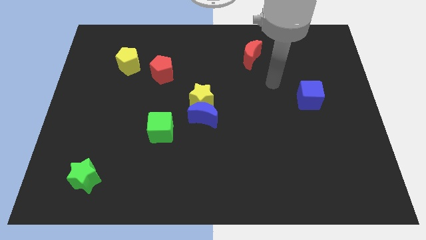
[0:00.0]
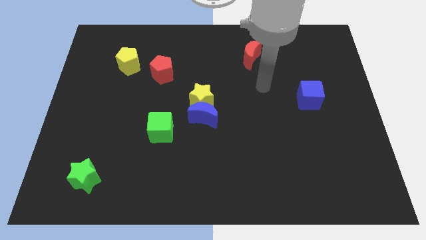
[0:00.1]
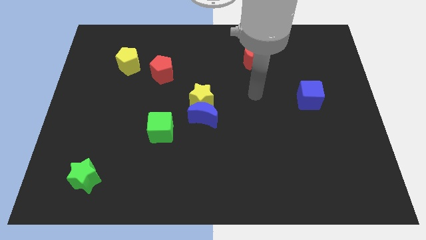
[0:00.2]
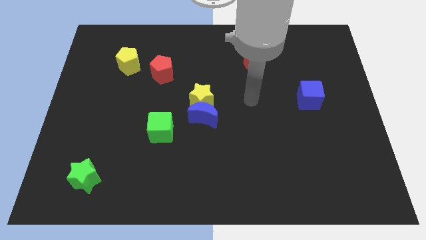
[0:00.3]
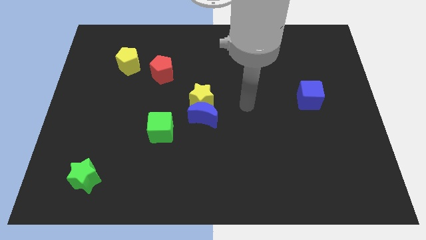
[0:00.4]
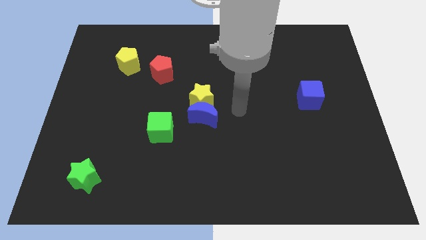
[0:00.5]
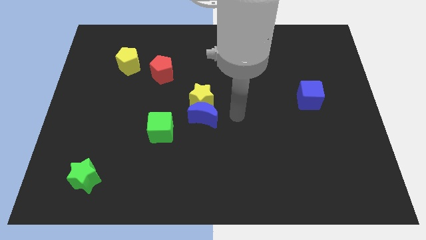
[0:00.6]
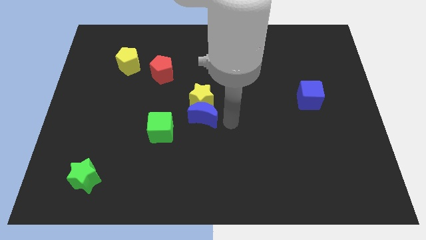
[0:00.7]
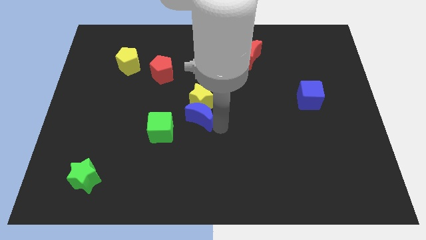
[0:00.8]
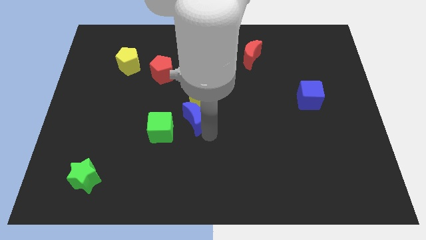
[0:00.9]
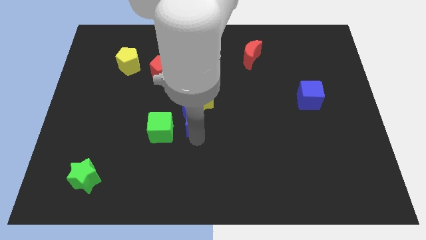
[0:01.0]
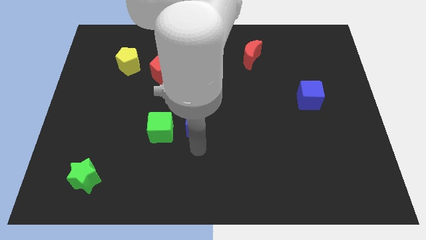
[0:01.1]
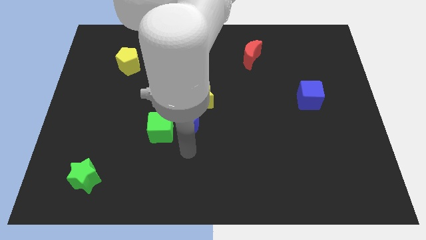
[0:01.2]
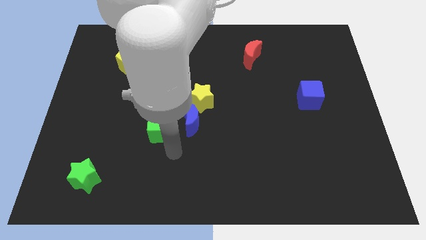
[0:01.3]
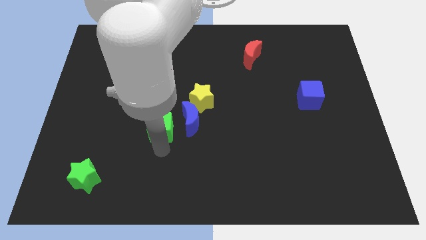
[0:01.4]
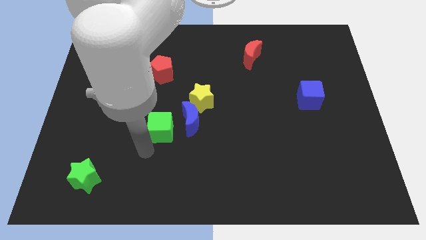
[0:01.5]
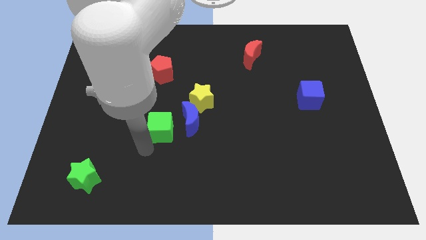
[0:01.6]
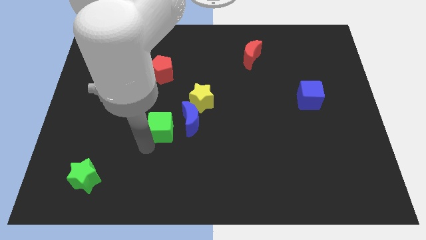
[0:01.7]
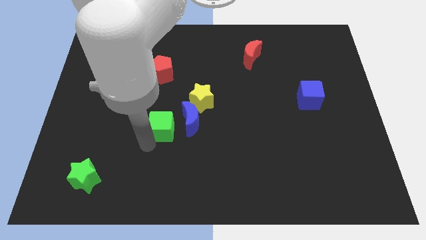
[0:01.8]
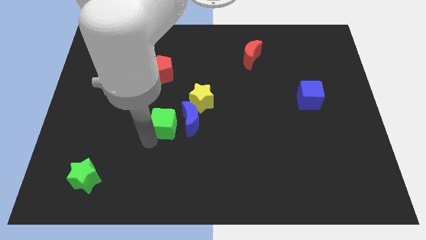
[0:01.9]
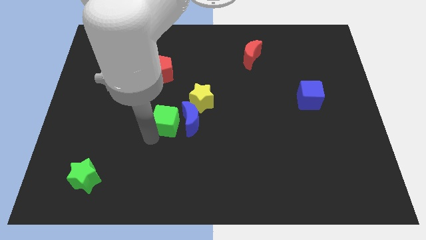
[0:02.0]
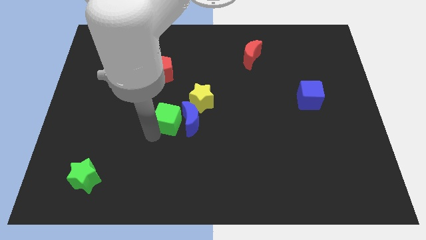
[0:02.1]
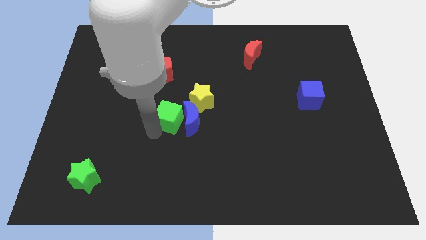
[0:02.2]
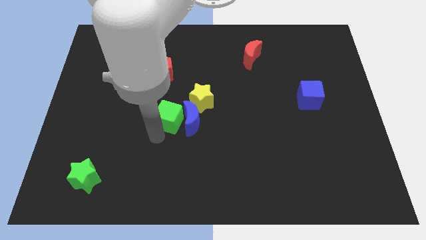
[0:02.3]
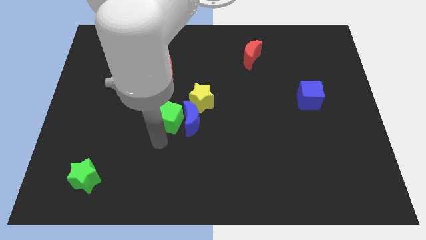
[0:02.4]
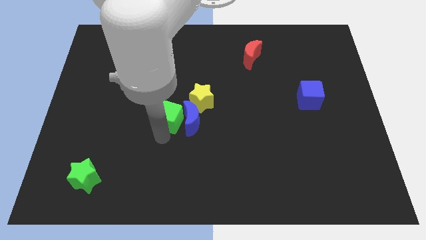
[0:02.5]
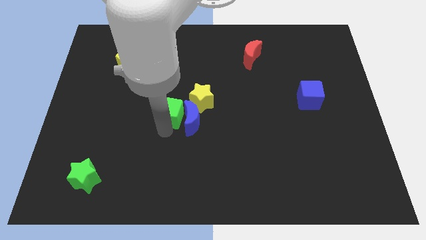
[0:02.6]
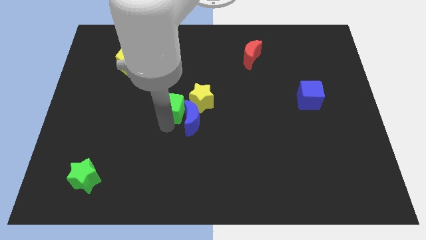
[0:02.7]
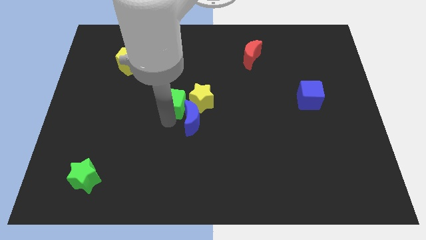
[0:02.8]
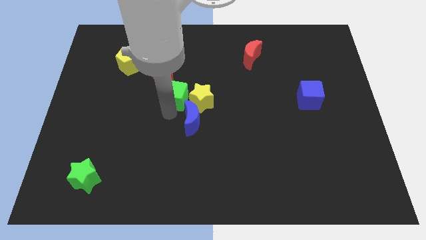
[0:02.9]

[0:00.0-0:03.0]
slide the green cube diagonally up and to the right slightly

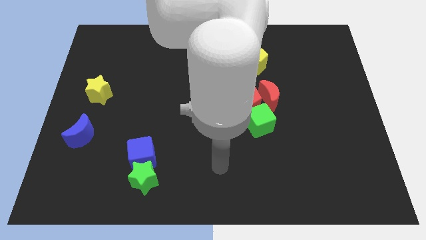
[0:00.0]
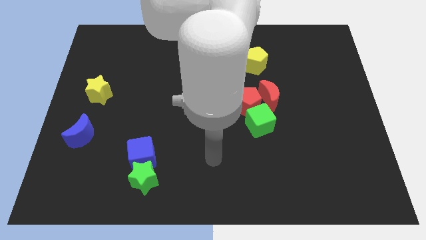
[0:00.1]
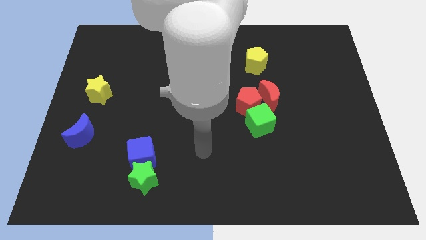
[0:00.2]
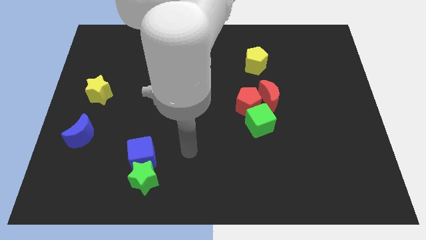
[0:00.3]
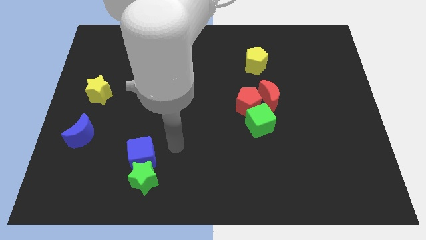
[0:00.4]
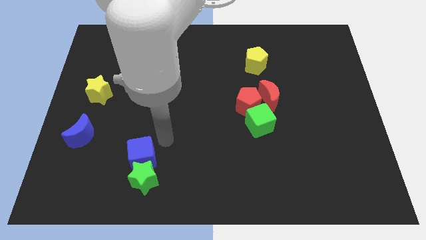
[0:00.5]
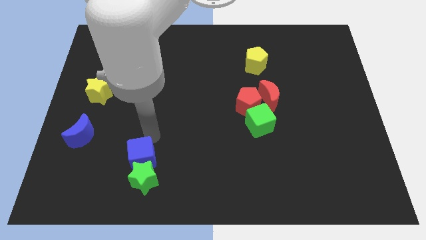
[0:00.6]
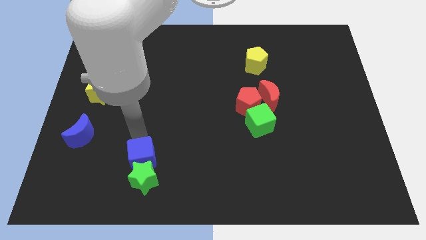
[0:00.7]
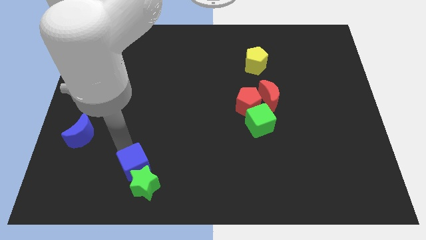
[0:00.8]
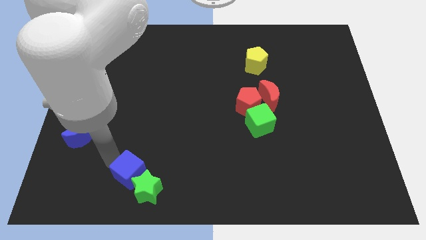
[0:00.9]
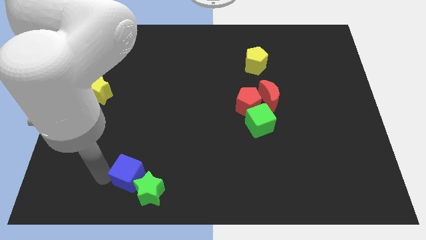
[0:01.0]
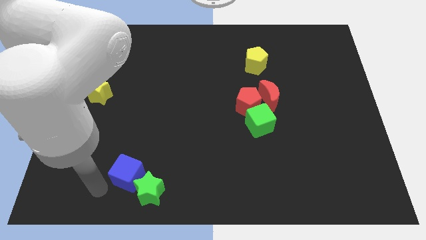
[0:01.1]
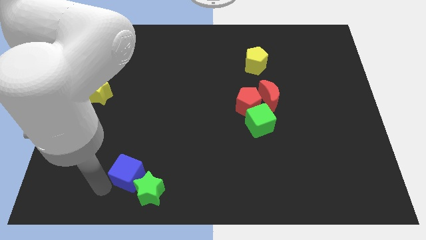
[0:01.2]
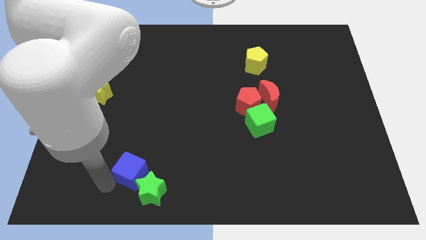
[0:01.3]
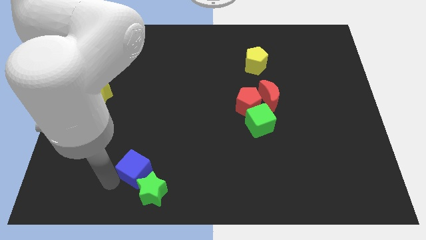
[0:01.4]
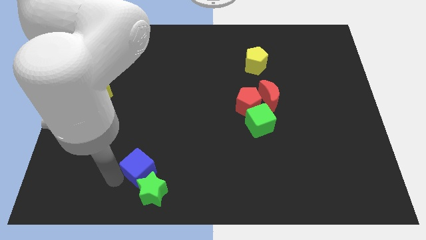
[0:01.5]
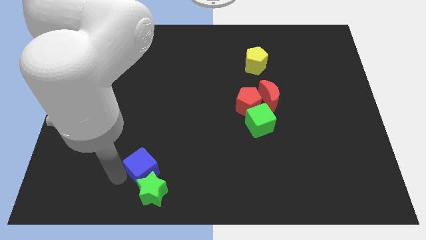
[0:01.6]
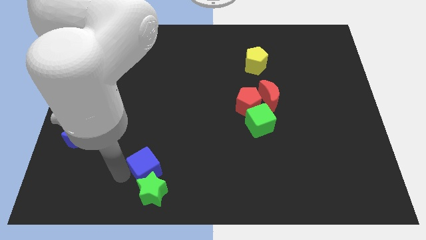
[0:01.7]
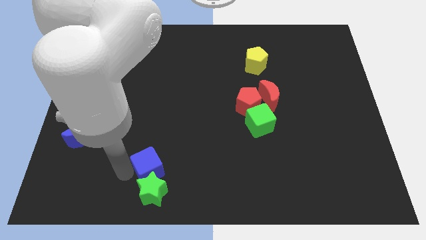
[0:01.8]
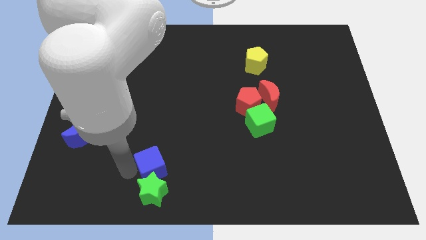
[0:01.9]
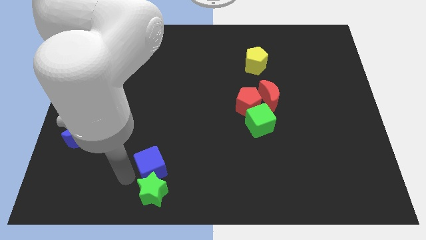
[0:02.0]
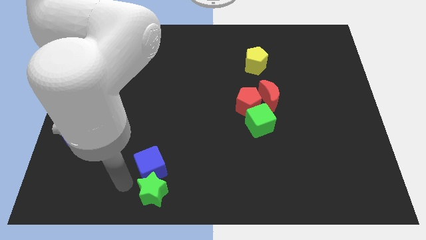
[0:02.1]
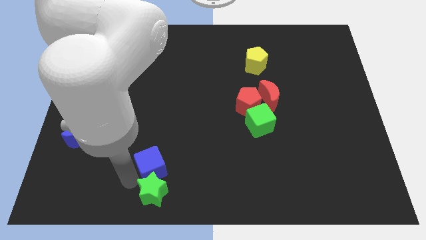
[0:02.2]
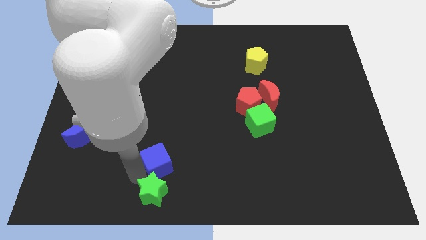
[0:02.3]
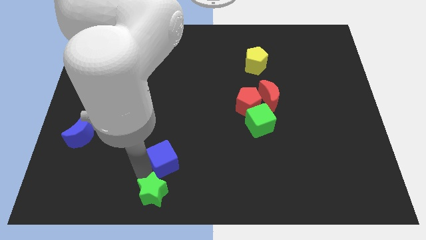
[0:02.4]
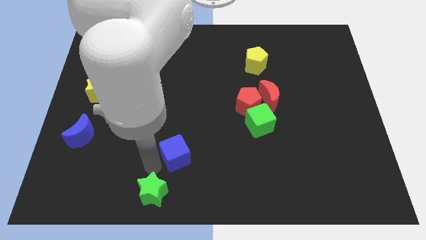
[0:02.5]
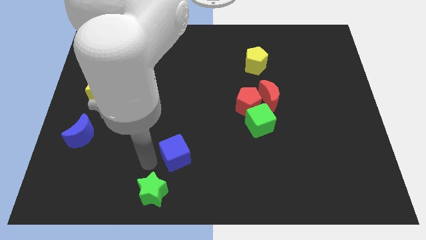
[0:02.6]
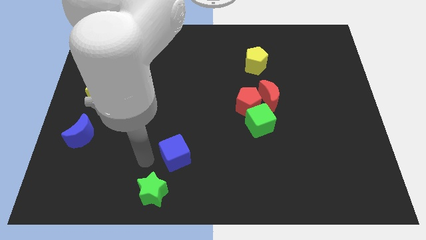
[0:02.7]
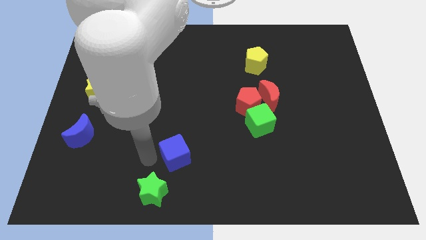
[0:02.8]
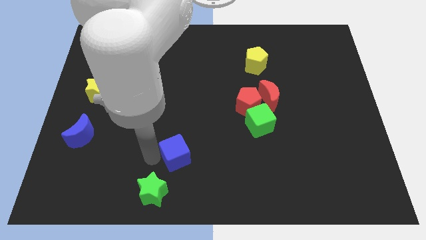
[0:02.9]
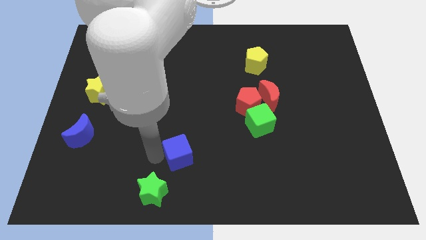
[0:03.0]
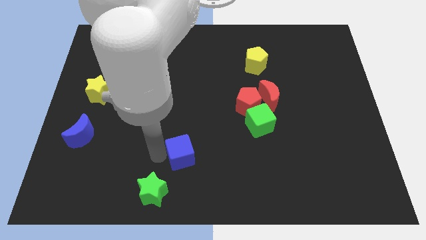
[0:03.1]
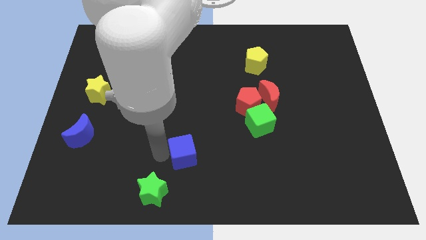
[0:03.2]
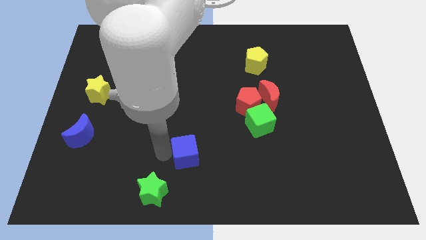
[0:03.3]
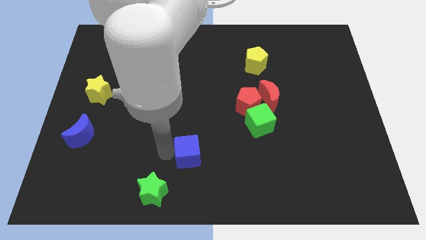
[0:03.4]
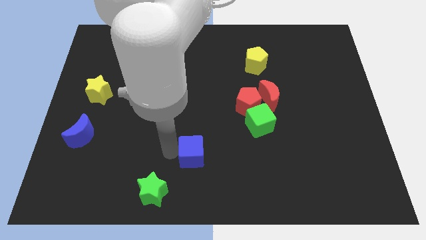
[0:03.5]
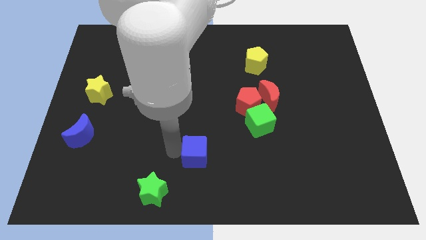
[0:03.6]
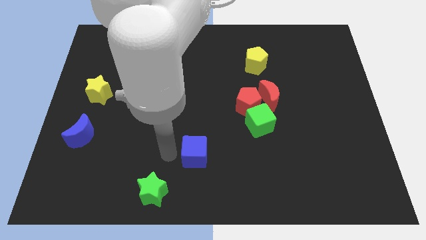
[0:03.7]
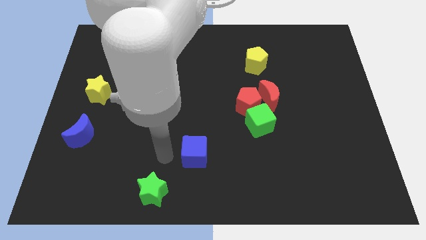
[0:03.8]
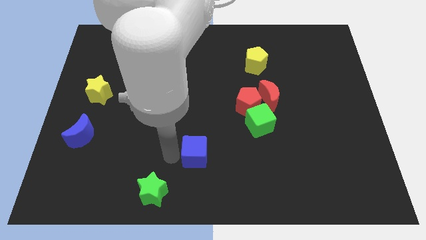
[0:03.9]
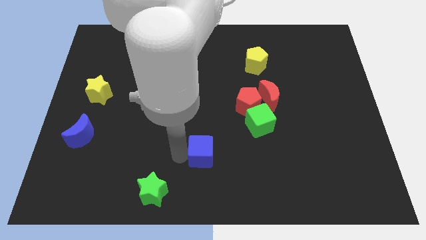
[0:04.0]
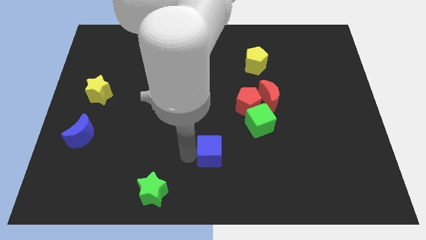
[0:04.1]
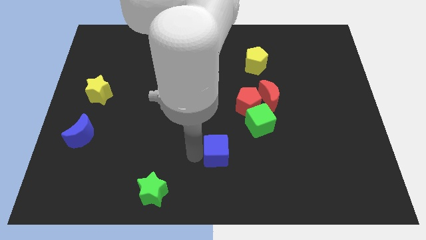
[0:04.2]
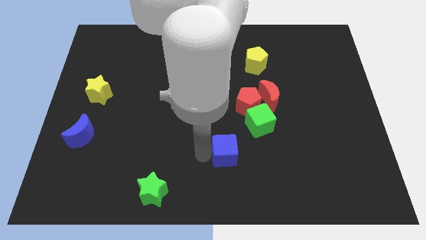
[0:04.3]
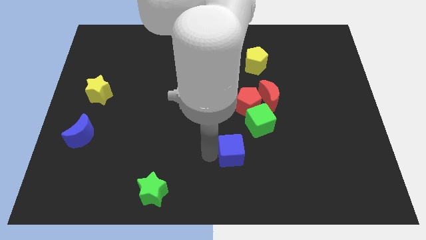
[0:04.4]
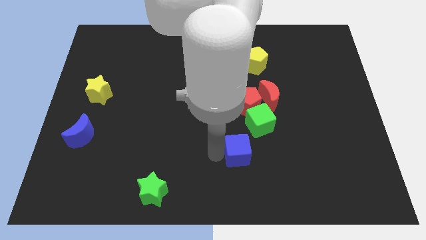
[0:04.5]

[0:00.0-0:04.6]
slide the blue cube to the right
